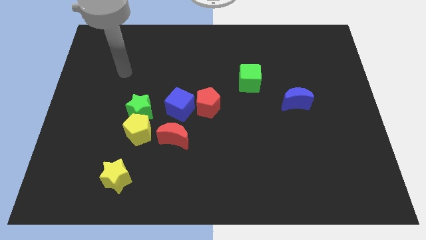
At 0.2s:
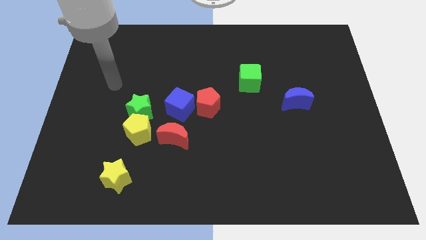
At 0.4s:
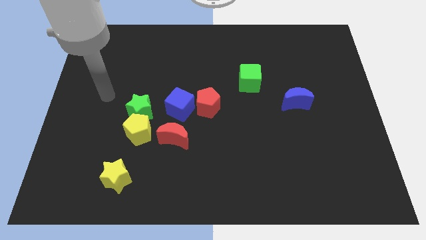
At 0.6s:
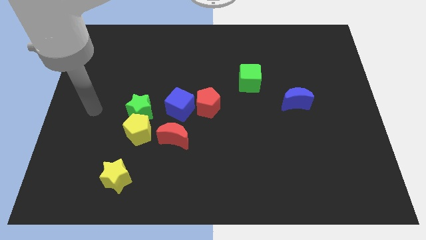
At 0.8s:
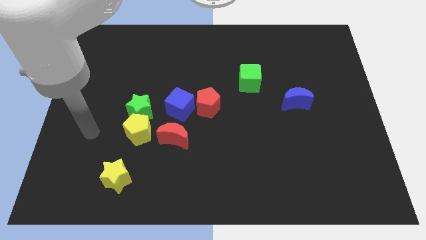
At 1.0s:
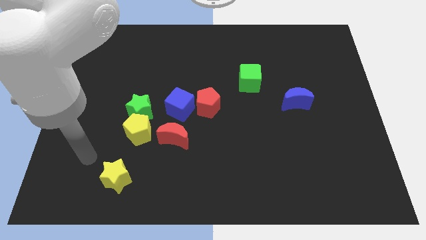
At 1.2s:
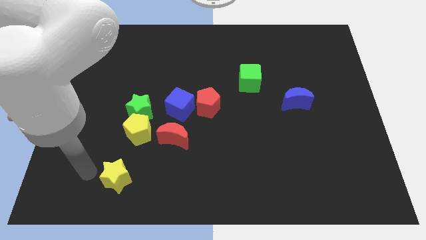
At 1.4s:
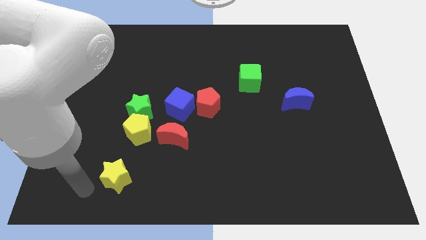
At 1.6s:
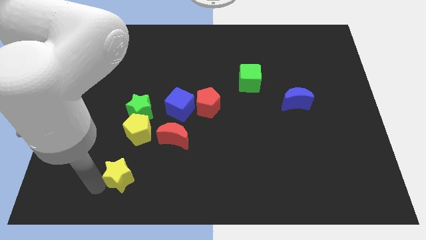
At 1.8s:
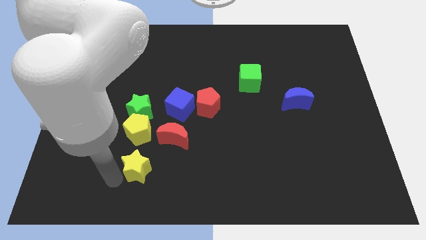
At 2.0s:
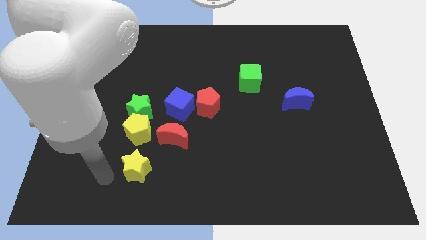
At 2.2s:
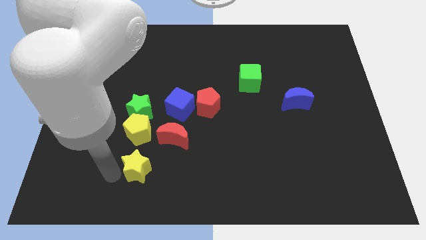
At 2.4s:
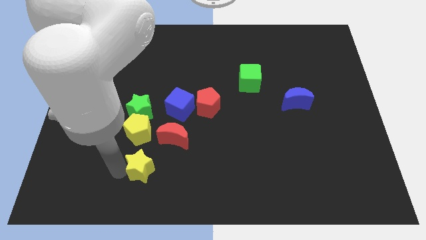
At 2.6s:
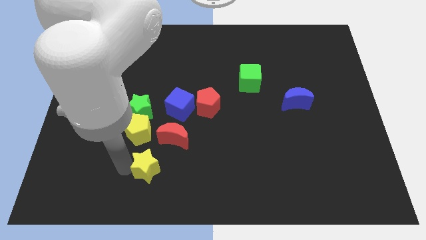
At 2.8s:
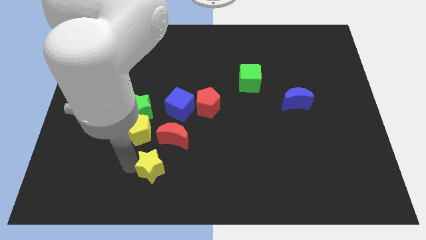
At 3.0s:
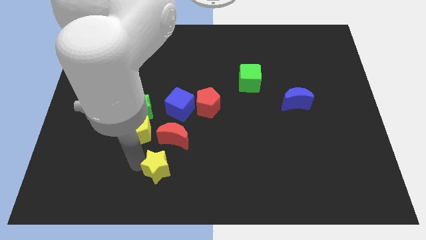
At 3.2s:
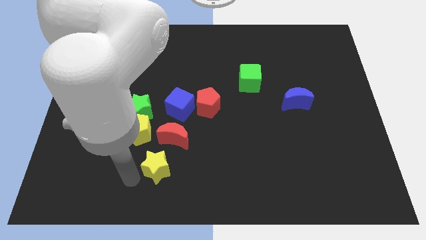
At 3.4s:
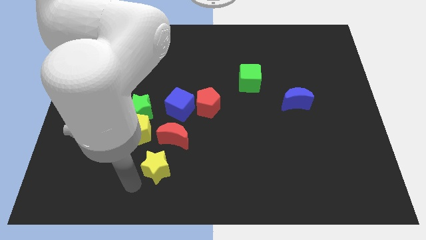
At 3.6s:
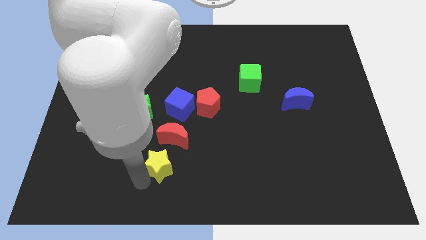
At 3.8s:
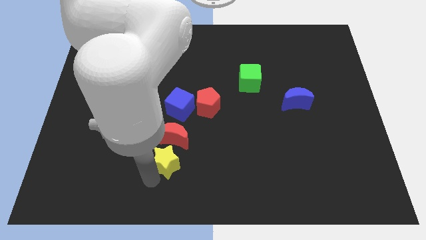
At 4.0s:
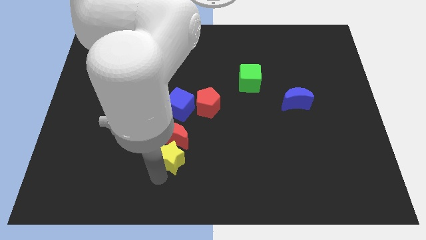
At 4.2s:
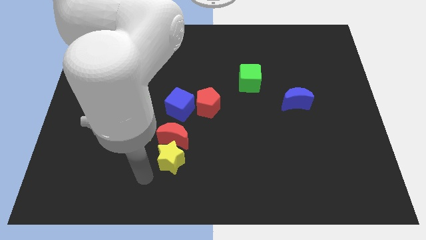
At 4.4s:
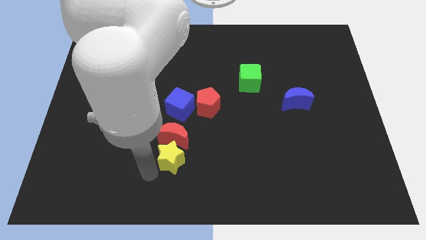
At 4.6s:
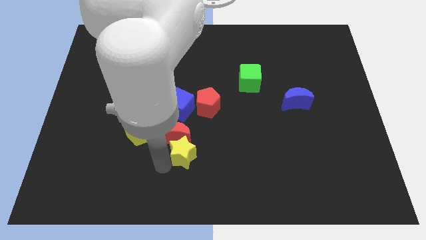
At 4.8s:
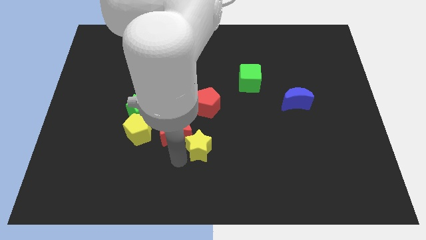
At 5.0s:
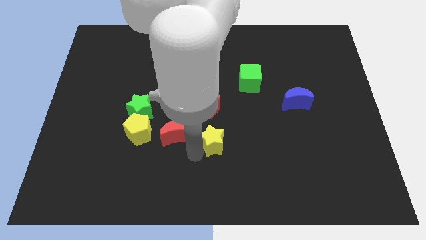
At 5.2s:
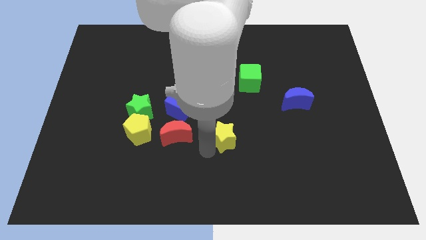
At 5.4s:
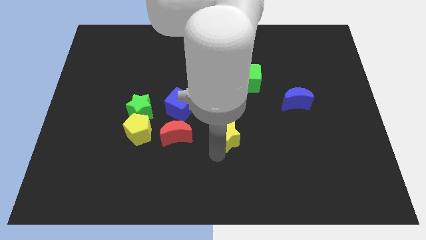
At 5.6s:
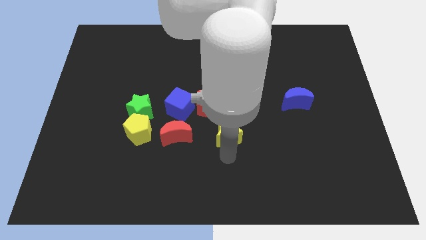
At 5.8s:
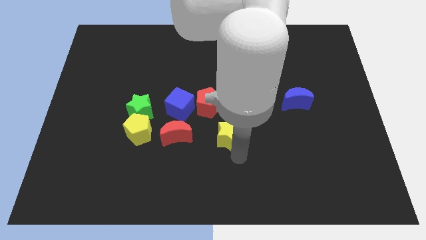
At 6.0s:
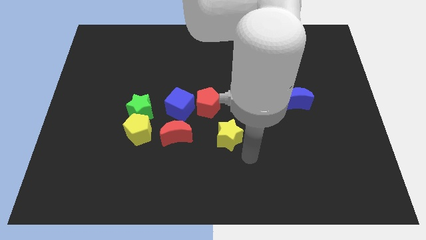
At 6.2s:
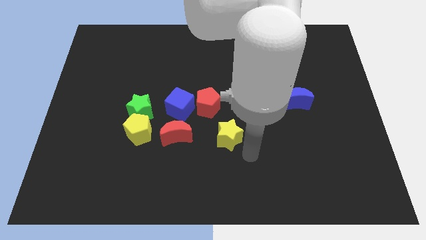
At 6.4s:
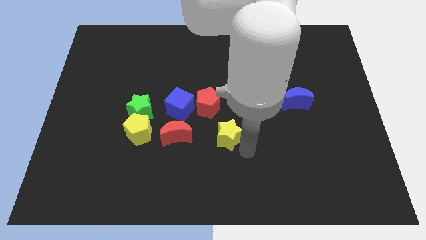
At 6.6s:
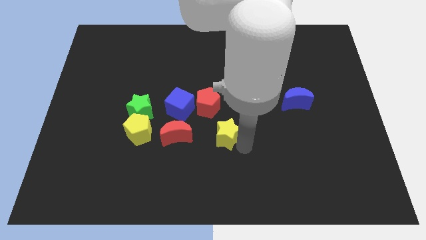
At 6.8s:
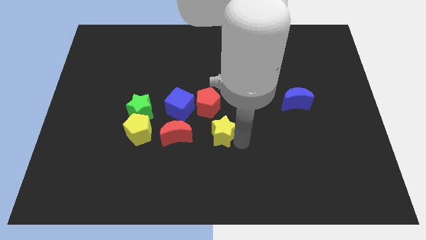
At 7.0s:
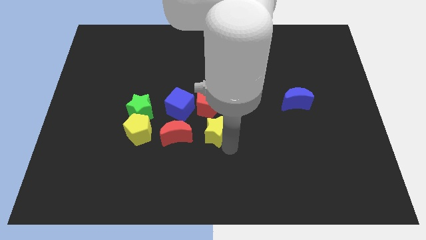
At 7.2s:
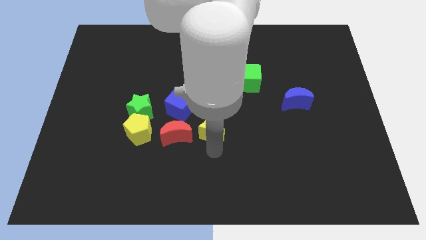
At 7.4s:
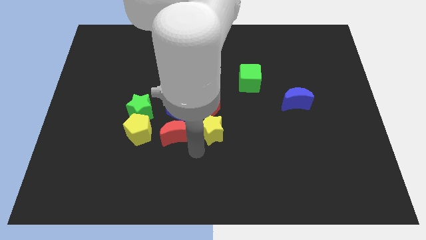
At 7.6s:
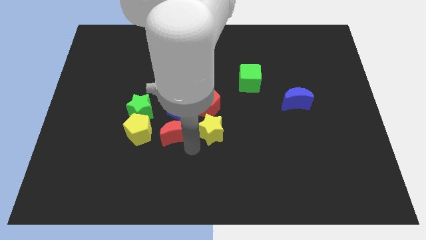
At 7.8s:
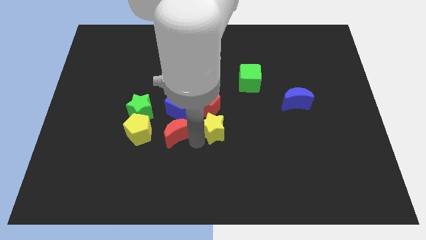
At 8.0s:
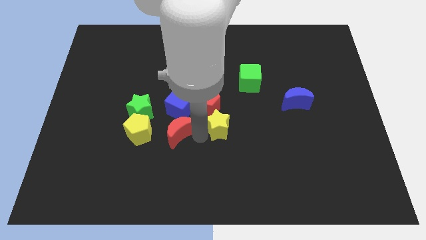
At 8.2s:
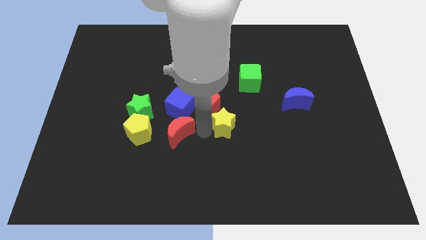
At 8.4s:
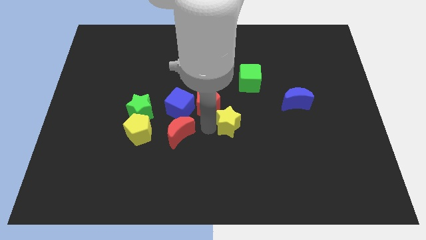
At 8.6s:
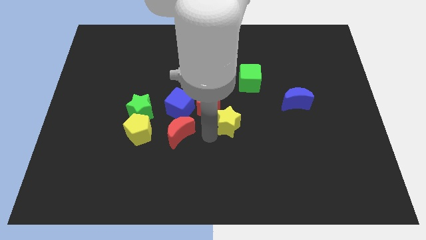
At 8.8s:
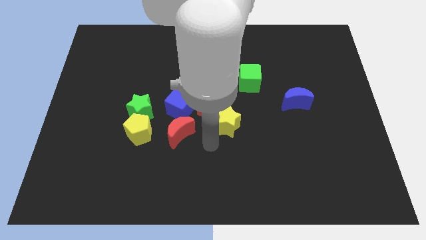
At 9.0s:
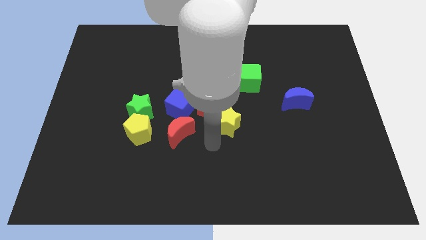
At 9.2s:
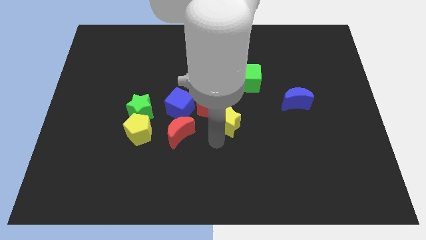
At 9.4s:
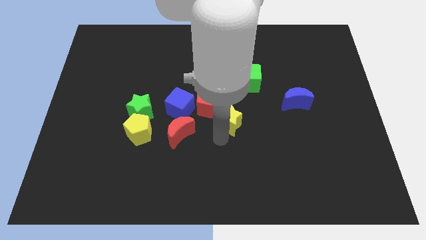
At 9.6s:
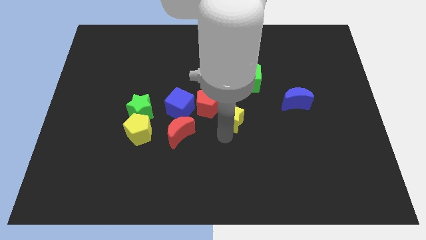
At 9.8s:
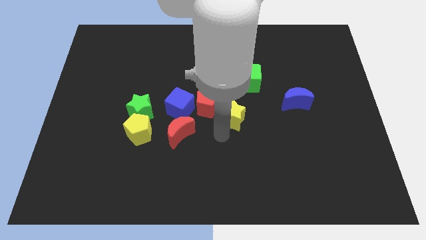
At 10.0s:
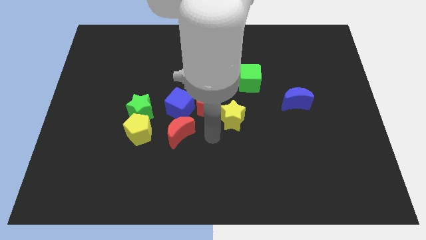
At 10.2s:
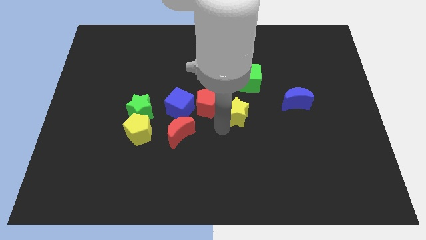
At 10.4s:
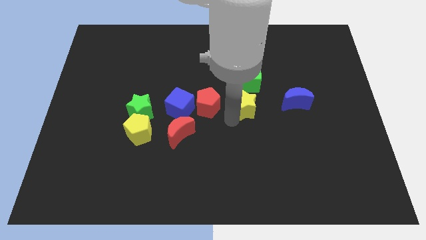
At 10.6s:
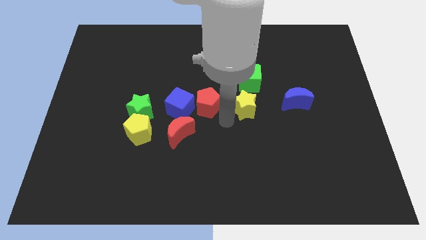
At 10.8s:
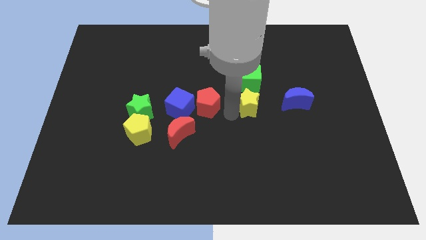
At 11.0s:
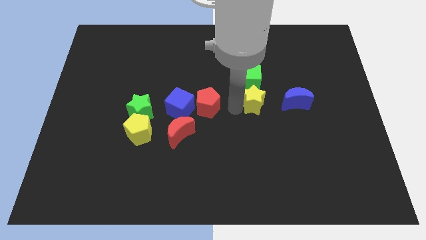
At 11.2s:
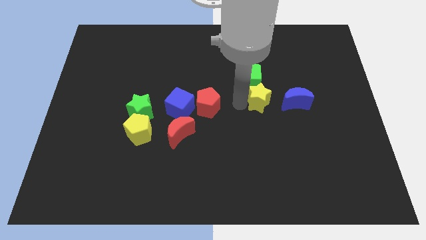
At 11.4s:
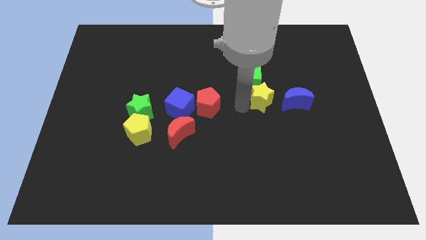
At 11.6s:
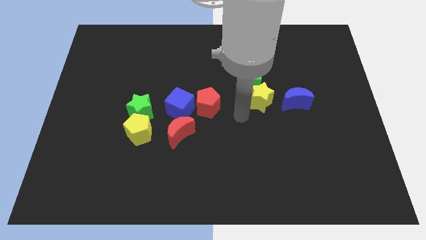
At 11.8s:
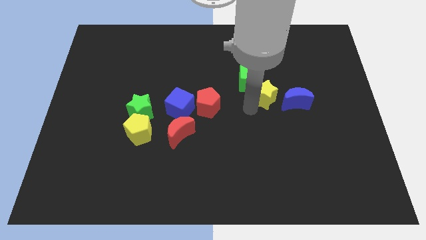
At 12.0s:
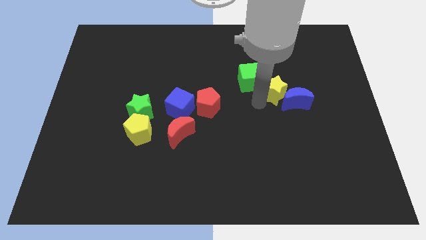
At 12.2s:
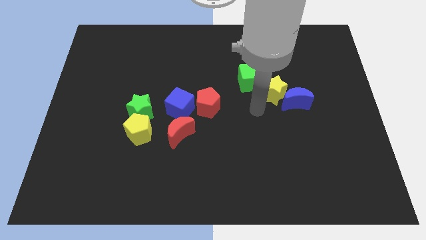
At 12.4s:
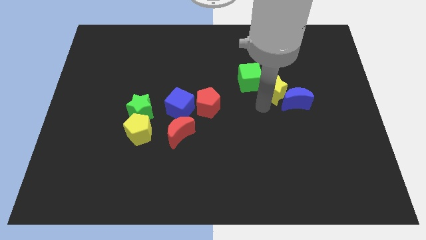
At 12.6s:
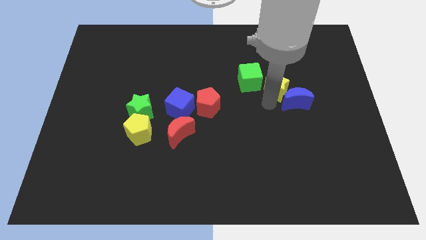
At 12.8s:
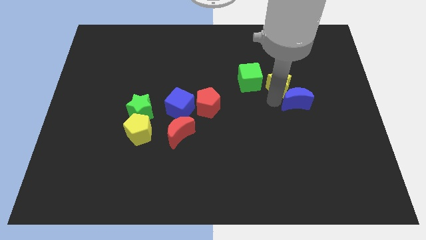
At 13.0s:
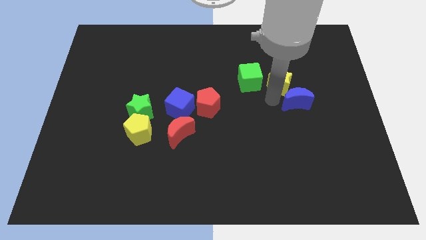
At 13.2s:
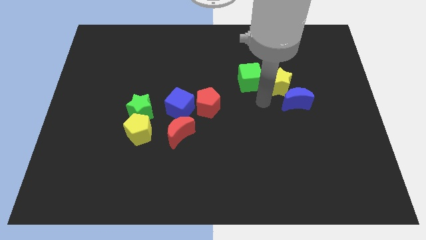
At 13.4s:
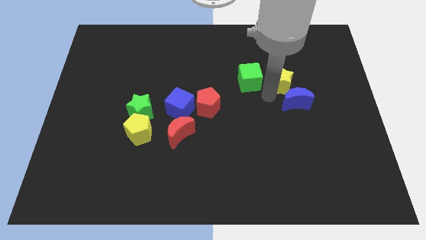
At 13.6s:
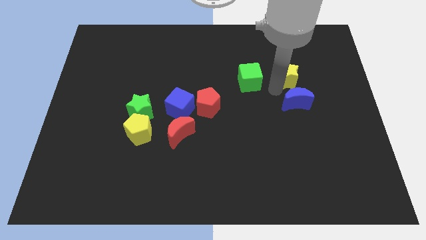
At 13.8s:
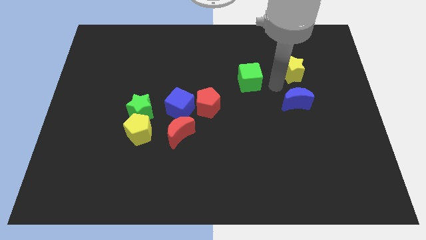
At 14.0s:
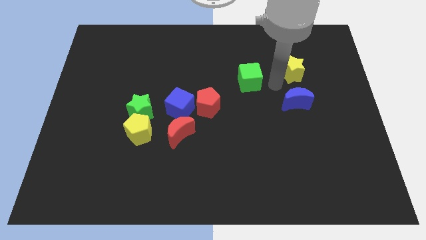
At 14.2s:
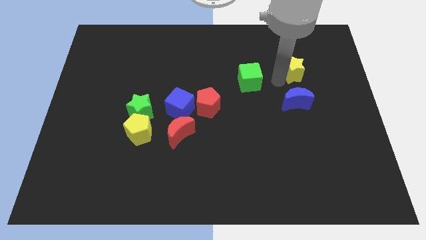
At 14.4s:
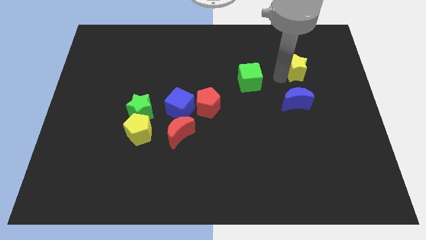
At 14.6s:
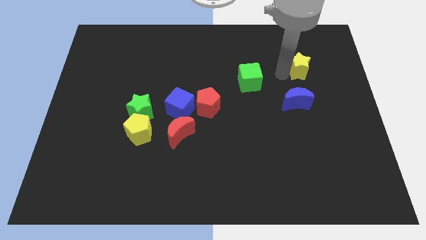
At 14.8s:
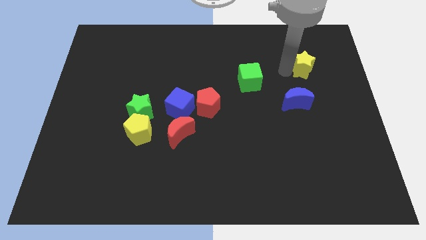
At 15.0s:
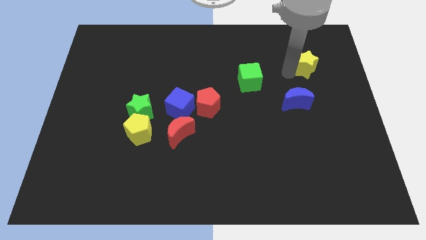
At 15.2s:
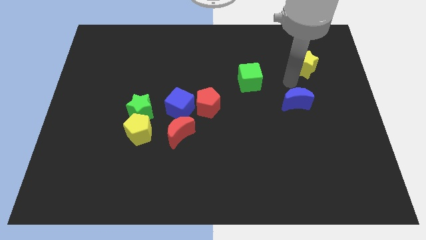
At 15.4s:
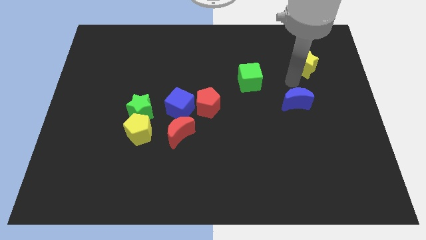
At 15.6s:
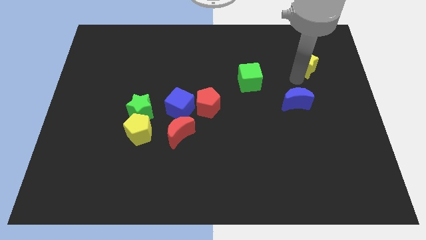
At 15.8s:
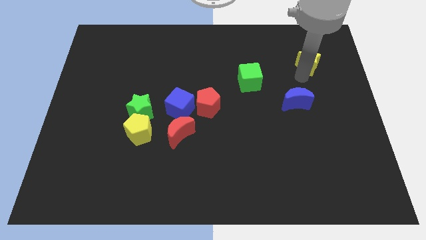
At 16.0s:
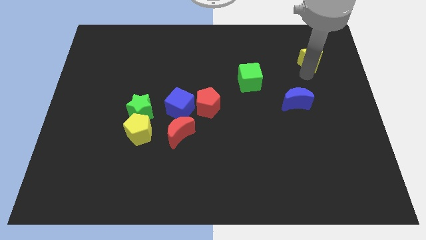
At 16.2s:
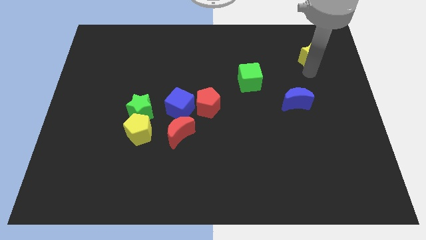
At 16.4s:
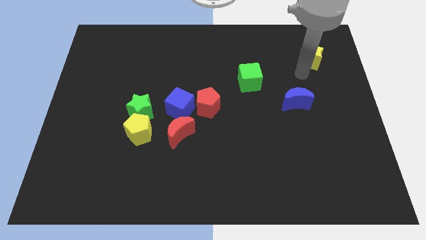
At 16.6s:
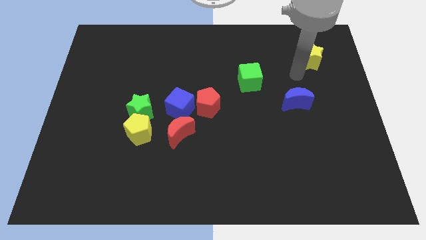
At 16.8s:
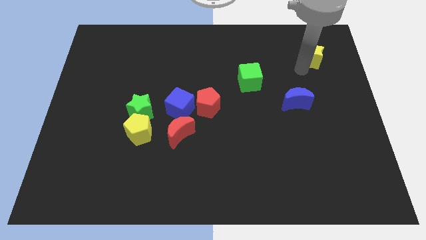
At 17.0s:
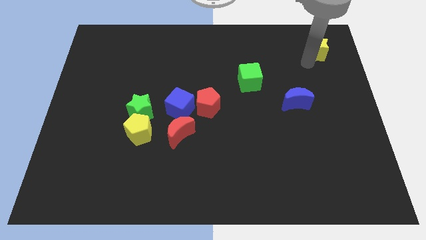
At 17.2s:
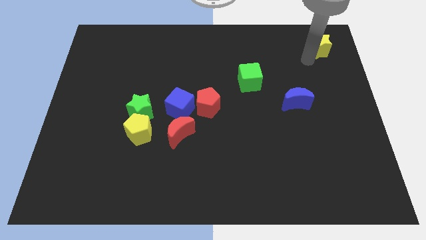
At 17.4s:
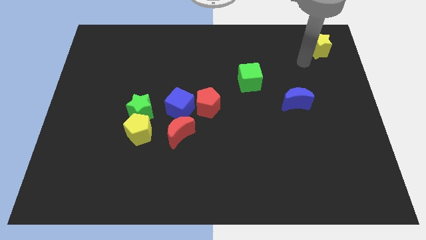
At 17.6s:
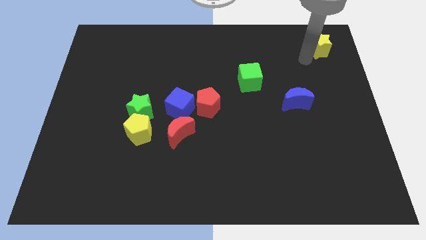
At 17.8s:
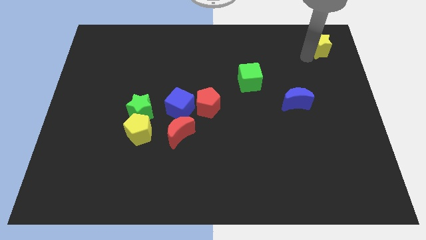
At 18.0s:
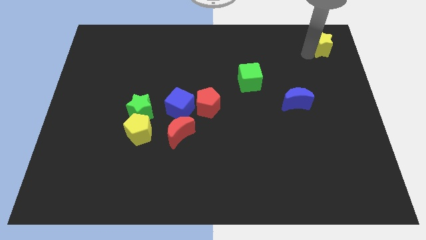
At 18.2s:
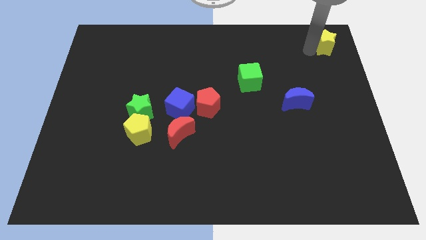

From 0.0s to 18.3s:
slide the yellow star to the upper right corner
